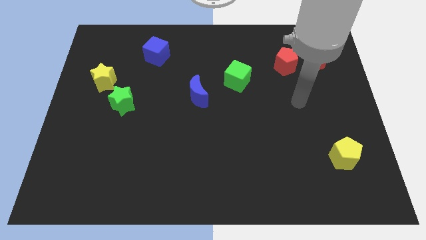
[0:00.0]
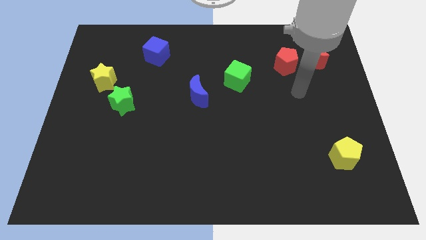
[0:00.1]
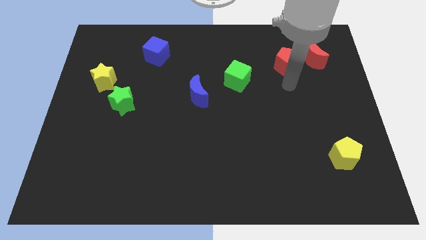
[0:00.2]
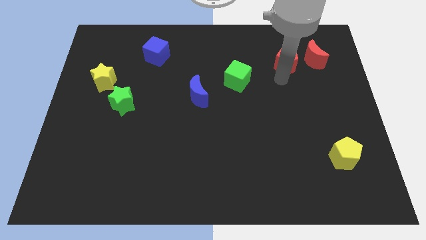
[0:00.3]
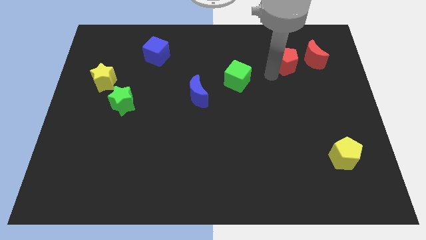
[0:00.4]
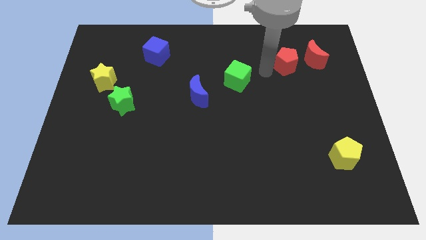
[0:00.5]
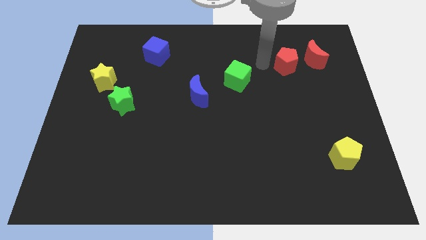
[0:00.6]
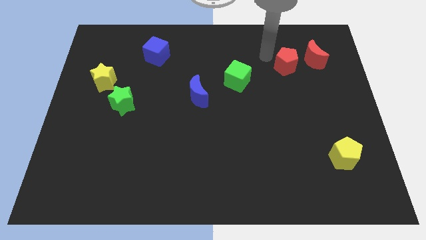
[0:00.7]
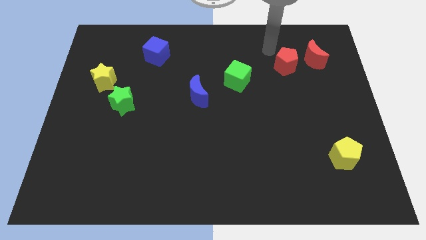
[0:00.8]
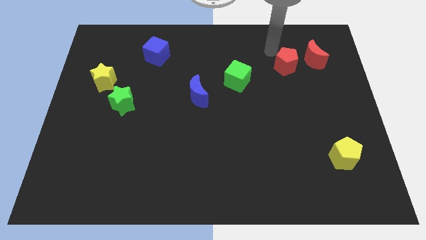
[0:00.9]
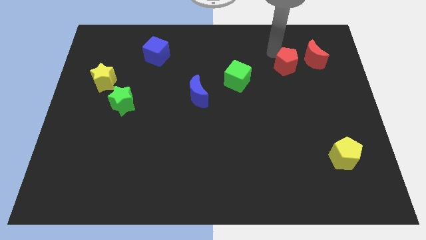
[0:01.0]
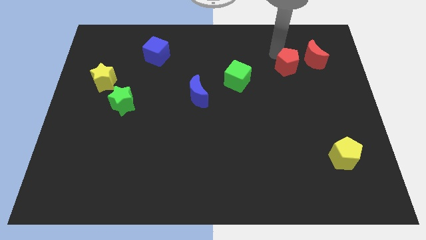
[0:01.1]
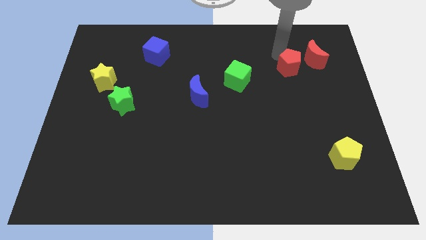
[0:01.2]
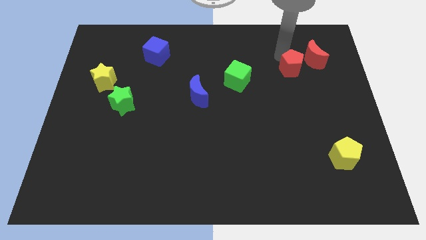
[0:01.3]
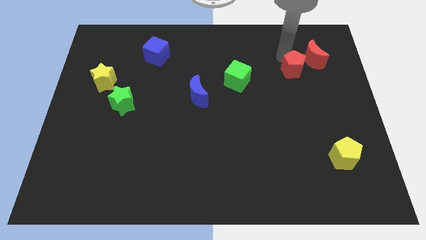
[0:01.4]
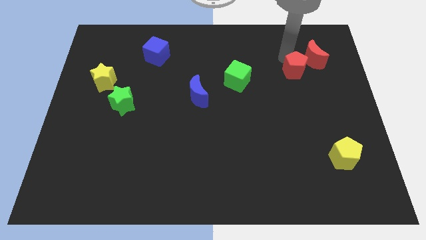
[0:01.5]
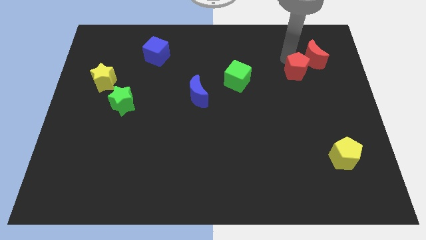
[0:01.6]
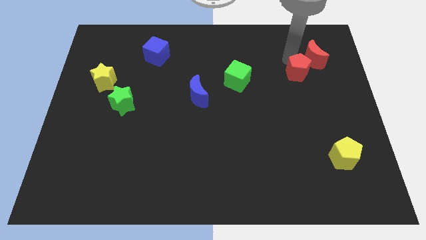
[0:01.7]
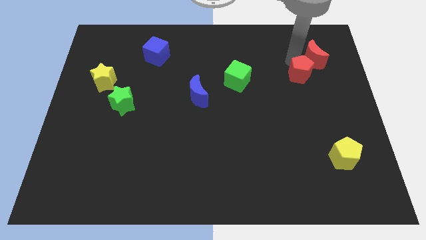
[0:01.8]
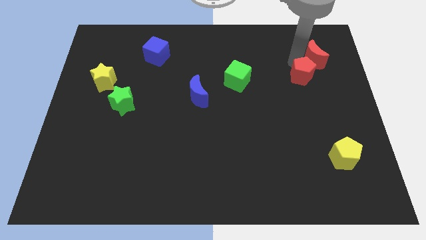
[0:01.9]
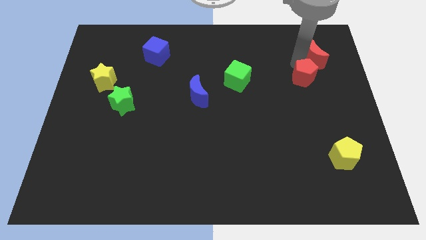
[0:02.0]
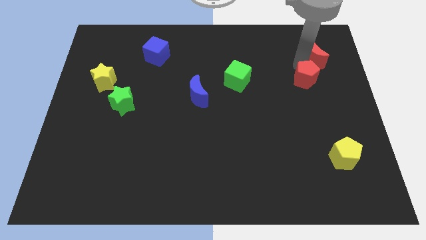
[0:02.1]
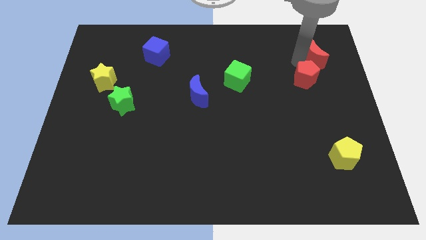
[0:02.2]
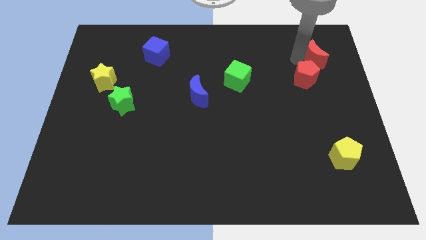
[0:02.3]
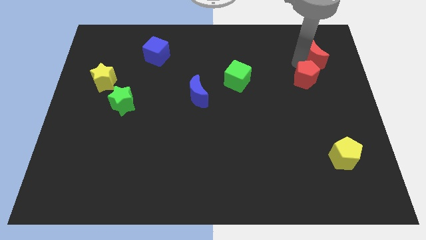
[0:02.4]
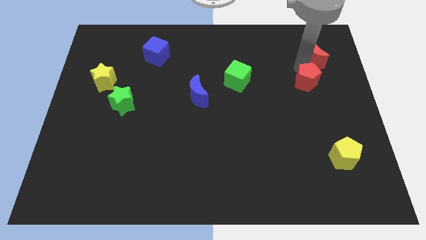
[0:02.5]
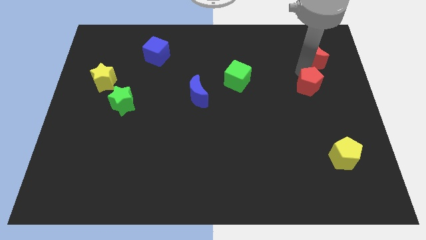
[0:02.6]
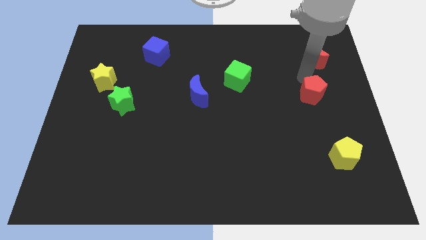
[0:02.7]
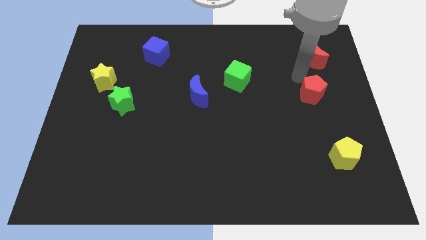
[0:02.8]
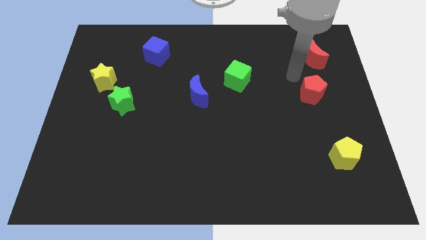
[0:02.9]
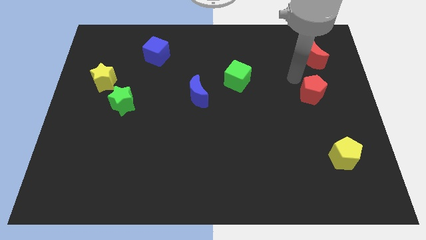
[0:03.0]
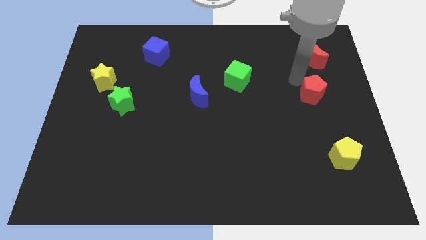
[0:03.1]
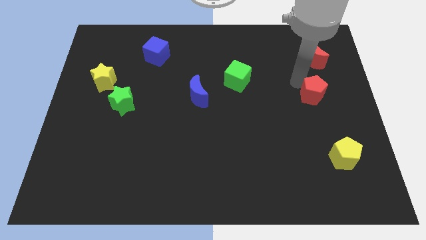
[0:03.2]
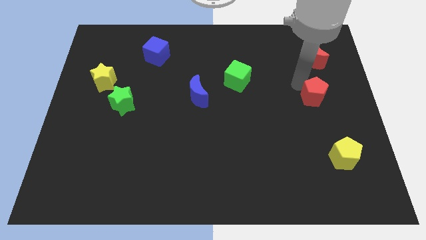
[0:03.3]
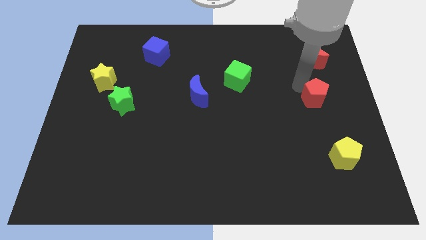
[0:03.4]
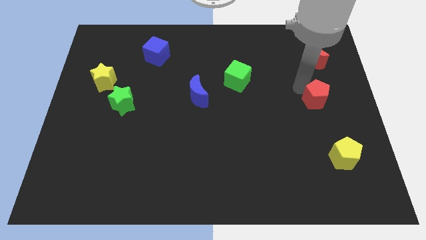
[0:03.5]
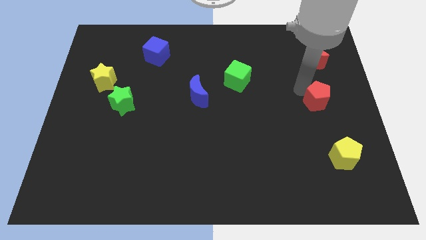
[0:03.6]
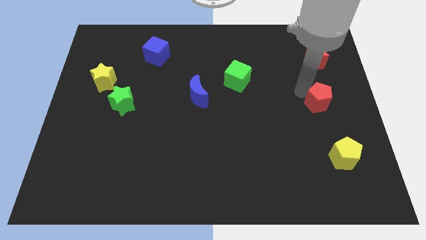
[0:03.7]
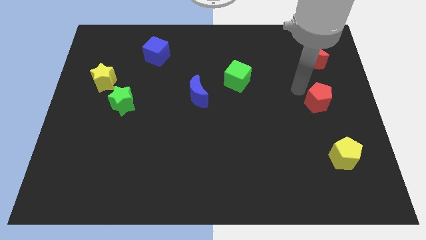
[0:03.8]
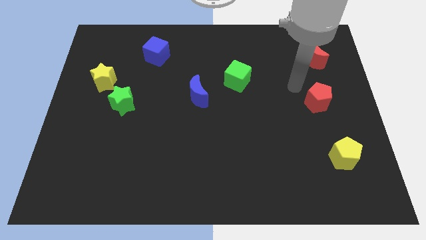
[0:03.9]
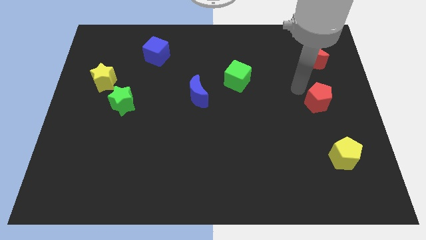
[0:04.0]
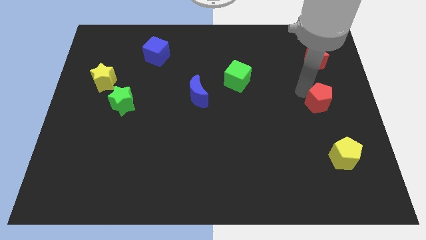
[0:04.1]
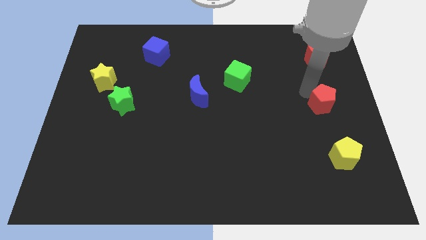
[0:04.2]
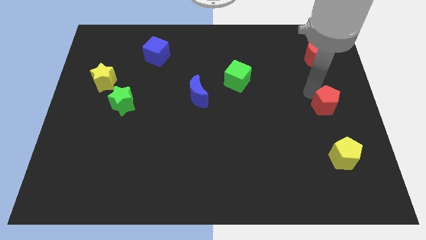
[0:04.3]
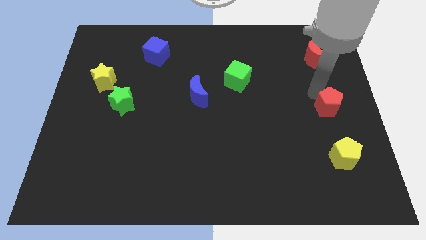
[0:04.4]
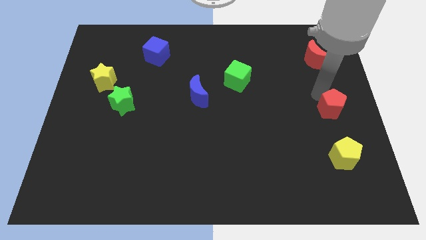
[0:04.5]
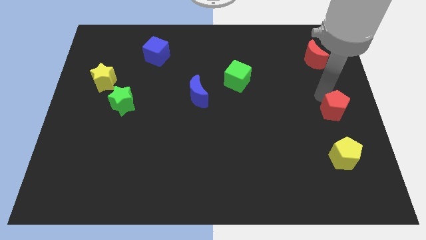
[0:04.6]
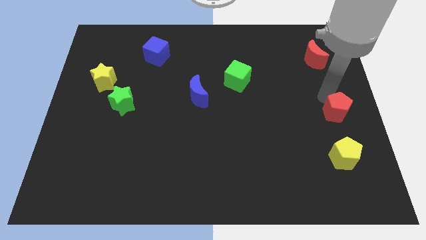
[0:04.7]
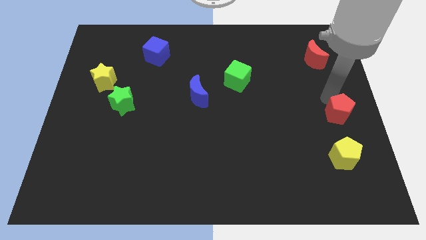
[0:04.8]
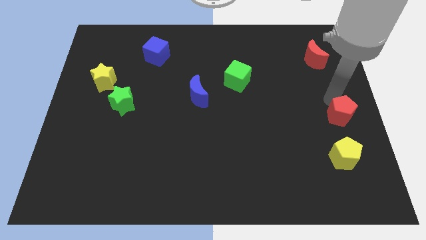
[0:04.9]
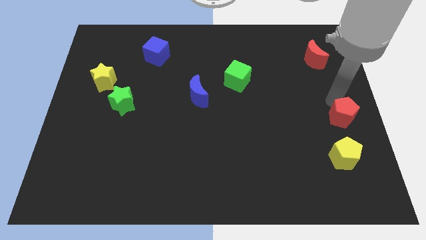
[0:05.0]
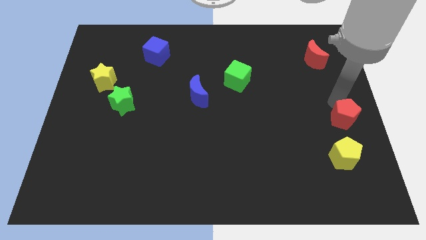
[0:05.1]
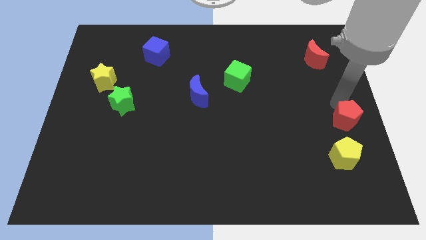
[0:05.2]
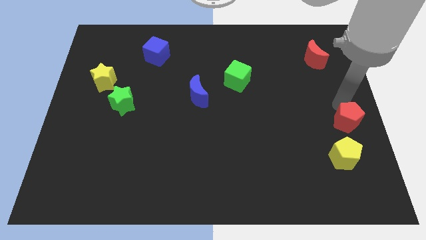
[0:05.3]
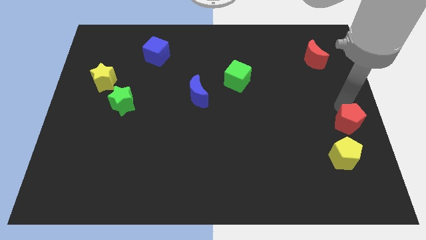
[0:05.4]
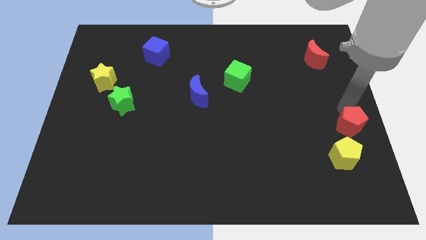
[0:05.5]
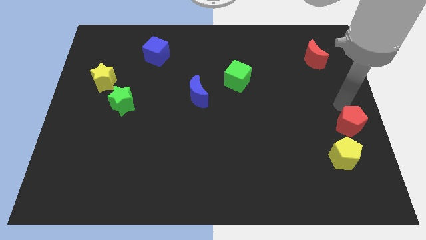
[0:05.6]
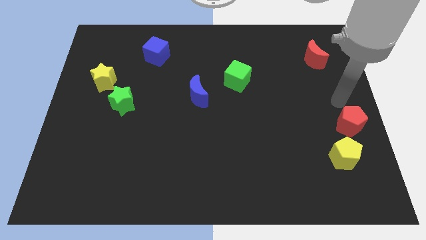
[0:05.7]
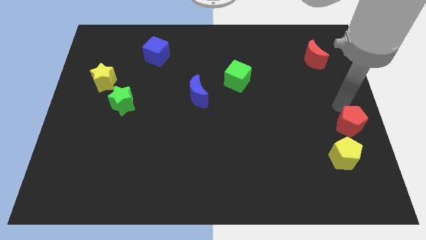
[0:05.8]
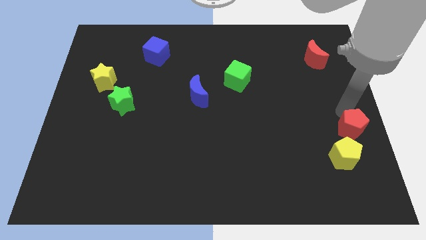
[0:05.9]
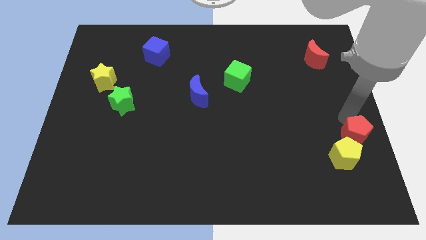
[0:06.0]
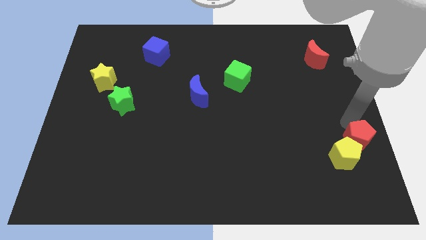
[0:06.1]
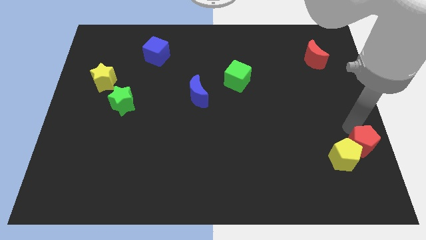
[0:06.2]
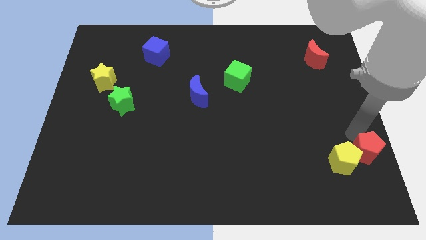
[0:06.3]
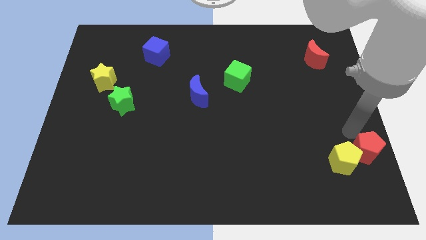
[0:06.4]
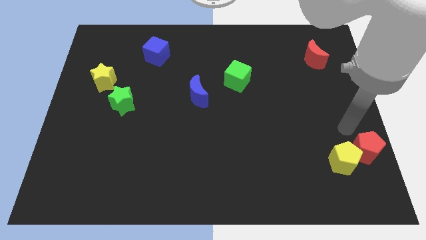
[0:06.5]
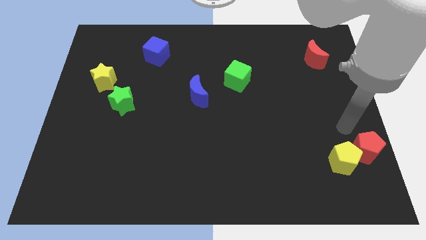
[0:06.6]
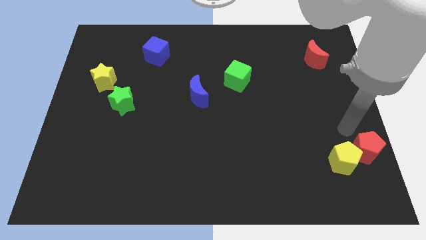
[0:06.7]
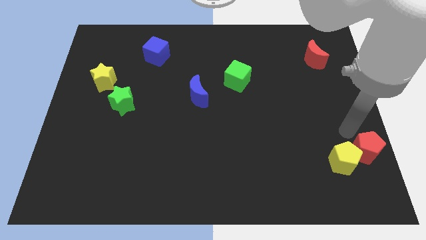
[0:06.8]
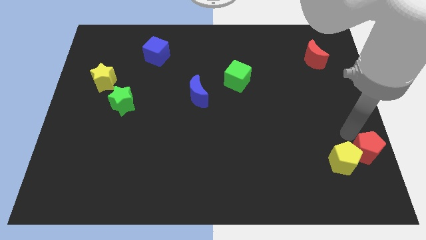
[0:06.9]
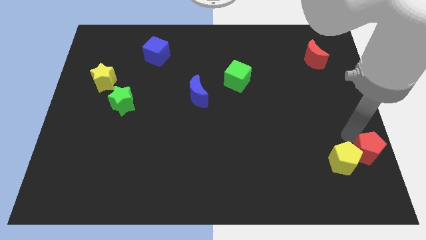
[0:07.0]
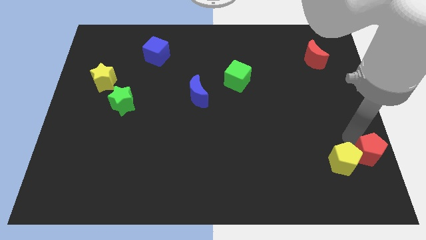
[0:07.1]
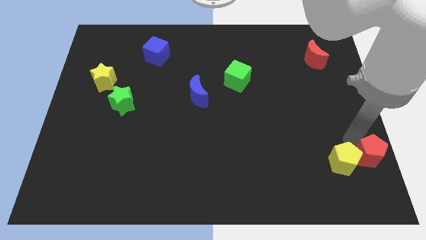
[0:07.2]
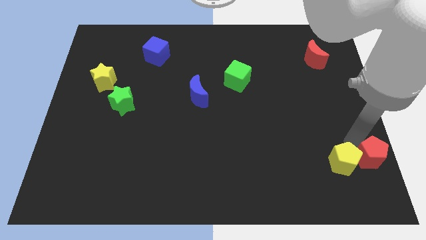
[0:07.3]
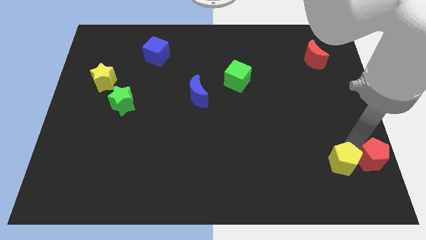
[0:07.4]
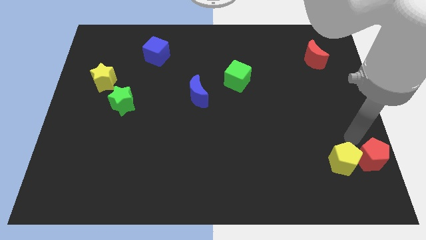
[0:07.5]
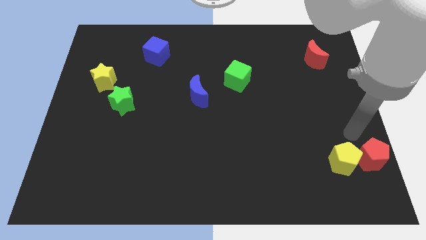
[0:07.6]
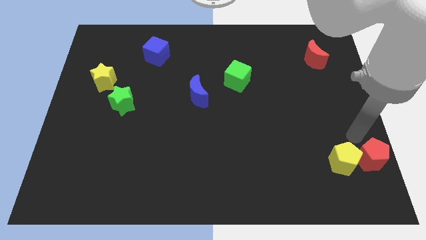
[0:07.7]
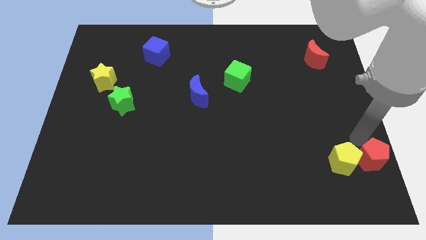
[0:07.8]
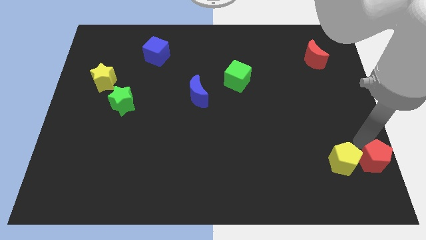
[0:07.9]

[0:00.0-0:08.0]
put the red pentagon to the bottom right
